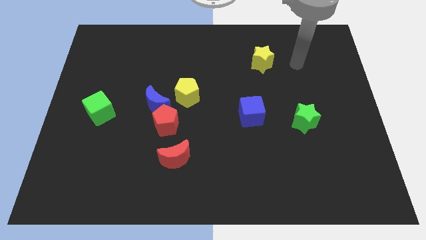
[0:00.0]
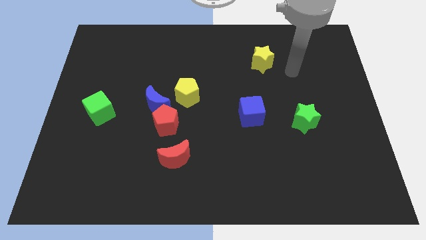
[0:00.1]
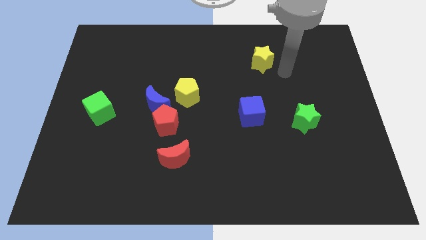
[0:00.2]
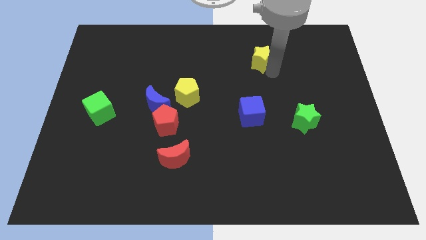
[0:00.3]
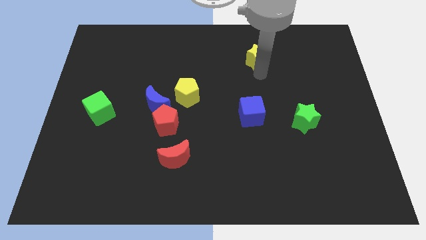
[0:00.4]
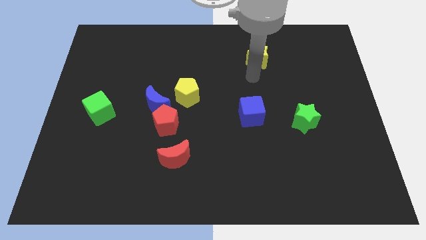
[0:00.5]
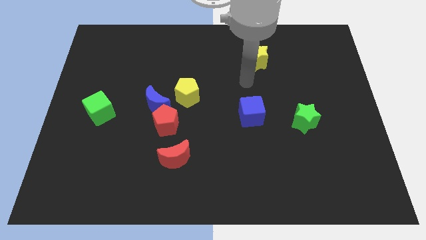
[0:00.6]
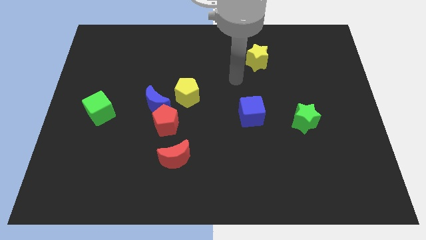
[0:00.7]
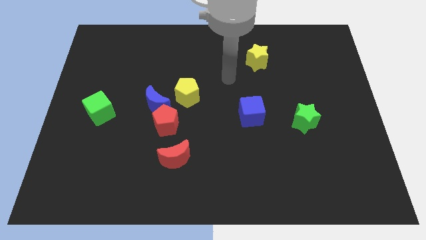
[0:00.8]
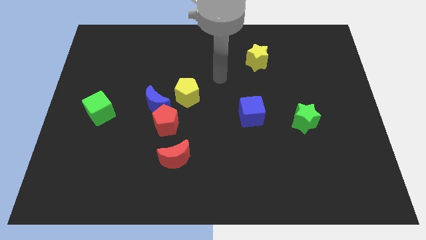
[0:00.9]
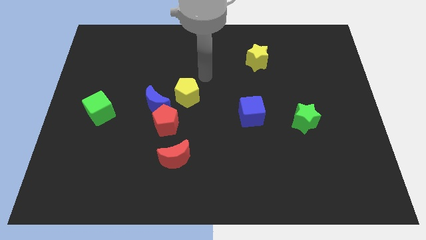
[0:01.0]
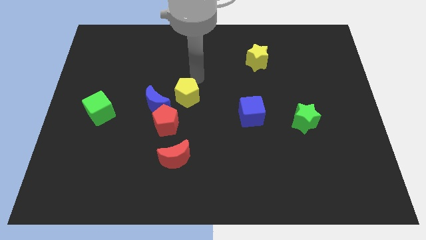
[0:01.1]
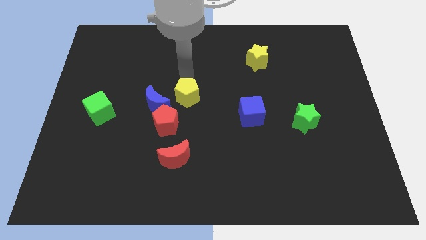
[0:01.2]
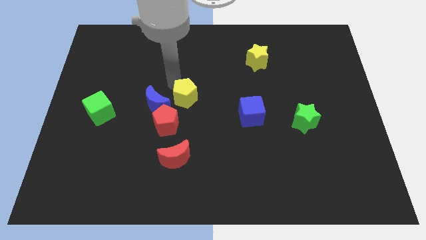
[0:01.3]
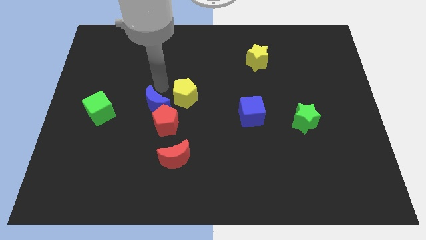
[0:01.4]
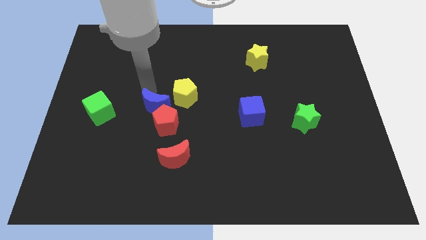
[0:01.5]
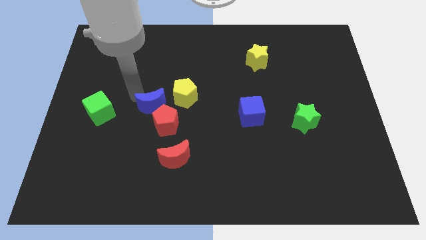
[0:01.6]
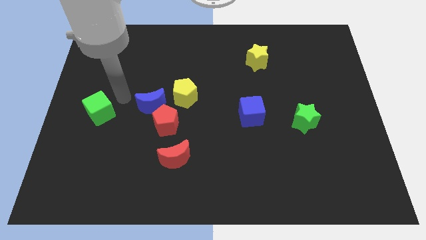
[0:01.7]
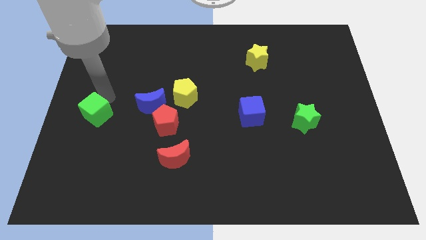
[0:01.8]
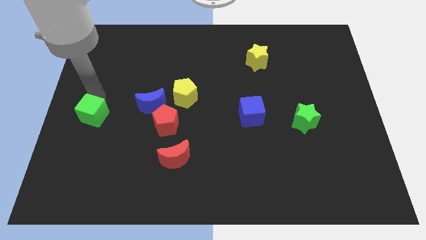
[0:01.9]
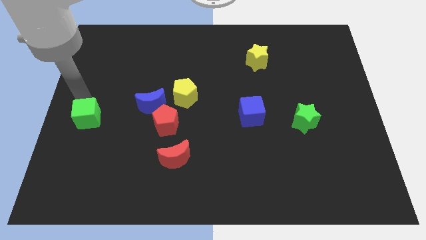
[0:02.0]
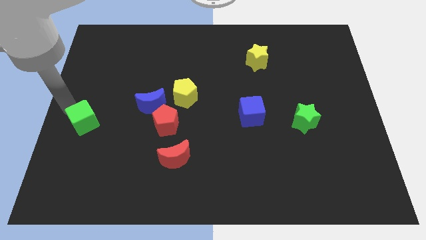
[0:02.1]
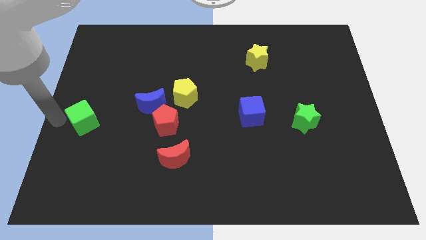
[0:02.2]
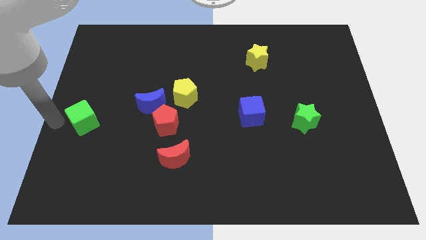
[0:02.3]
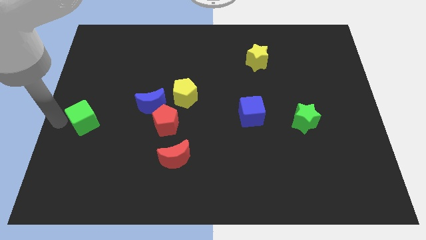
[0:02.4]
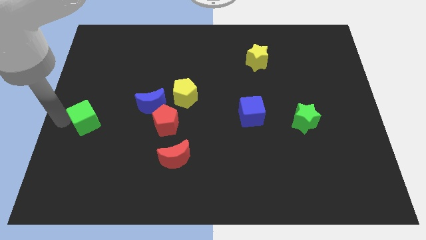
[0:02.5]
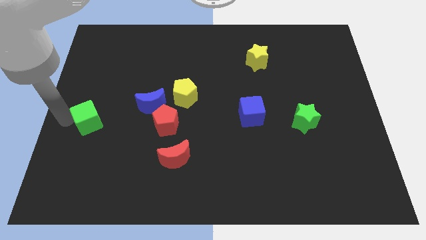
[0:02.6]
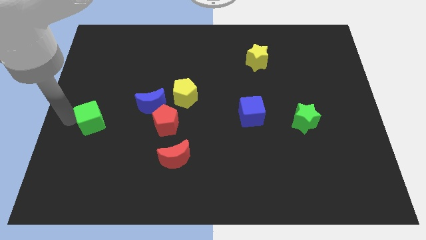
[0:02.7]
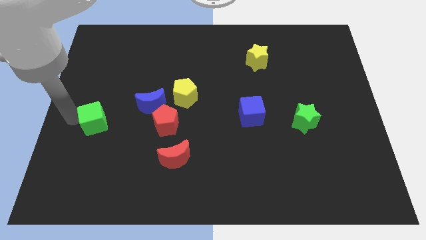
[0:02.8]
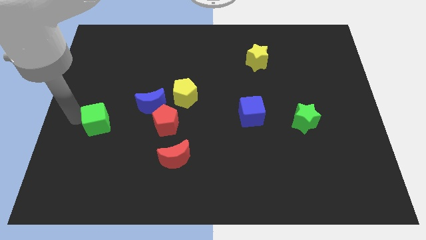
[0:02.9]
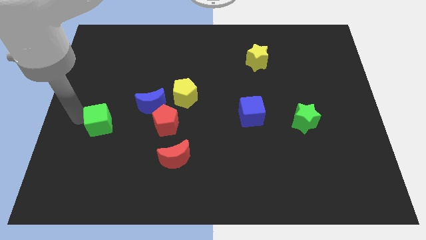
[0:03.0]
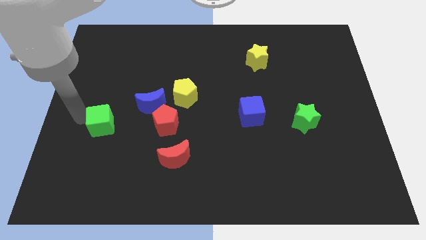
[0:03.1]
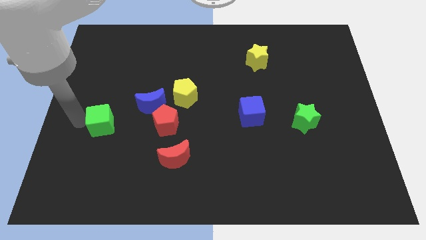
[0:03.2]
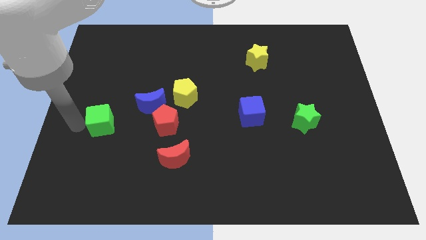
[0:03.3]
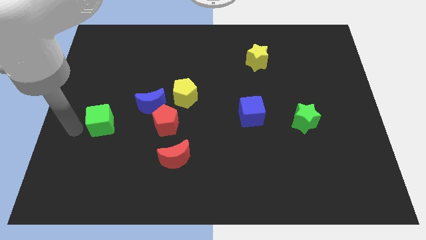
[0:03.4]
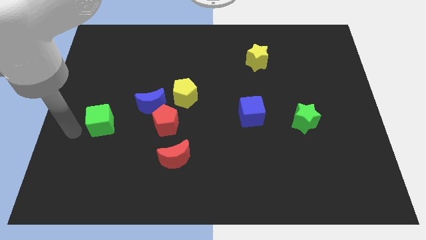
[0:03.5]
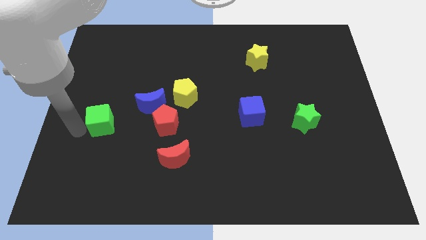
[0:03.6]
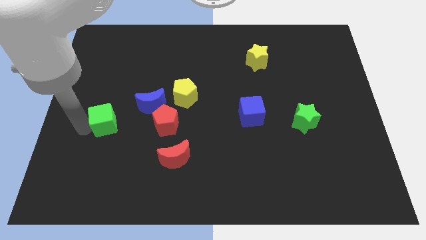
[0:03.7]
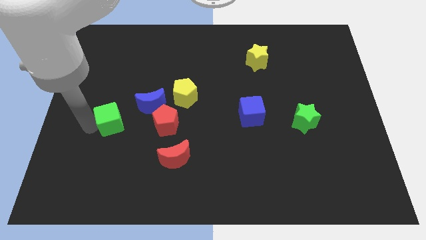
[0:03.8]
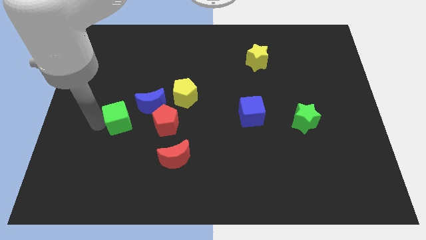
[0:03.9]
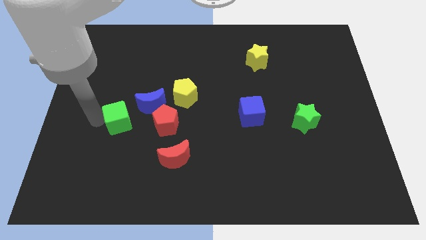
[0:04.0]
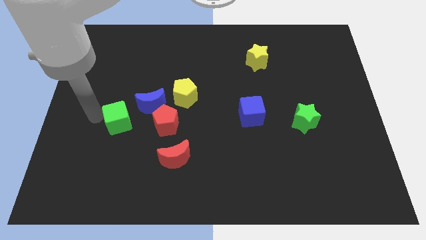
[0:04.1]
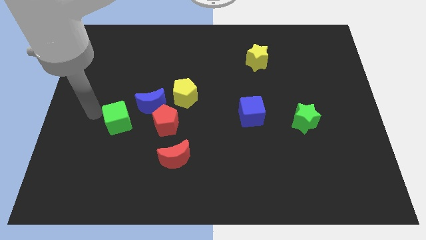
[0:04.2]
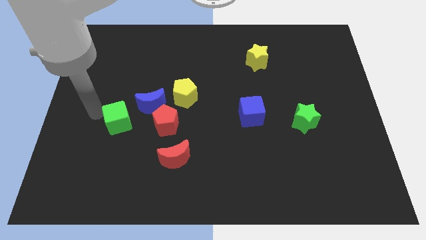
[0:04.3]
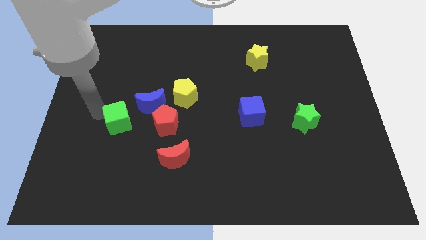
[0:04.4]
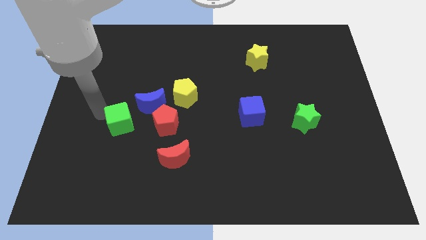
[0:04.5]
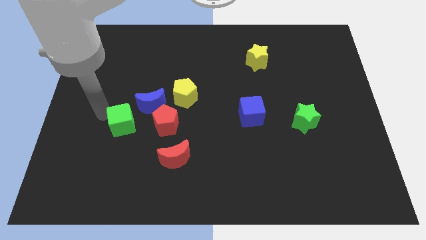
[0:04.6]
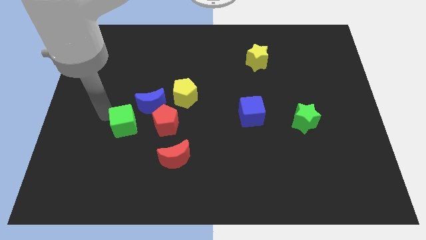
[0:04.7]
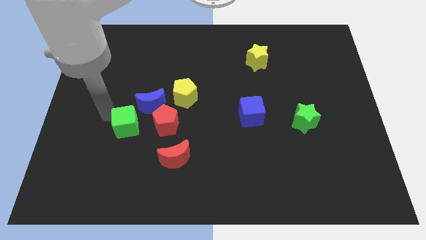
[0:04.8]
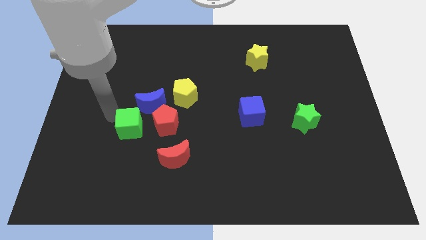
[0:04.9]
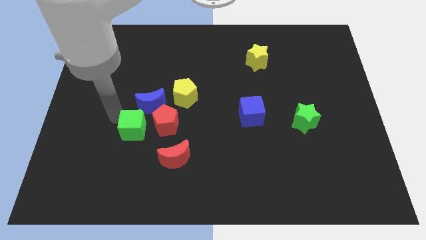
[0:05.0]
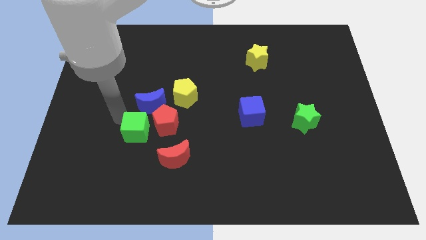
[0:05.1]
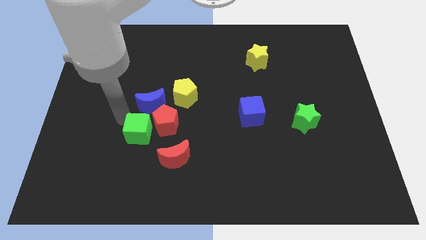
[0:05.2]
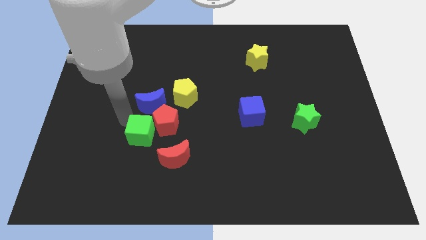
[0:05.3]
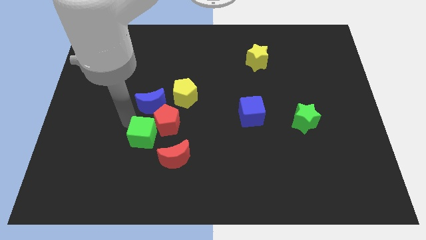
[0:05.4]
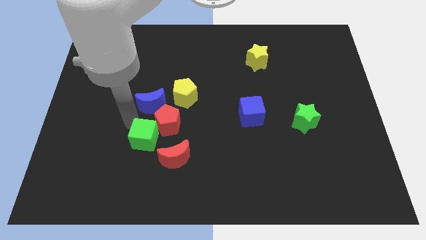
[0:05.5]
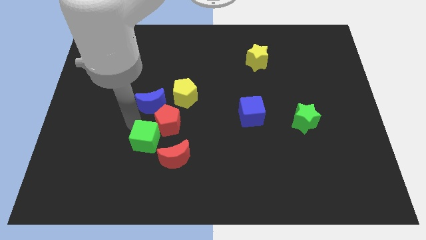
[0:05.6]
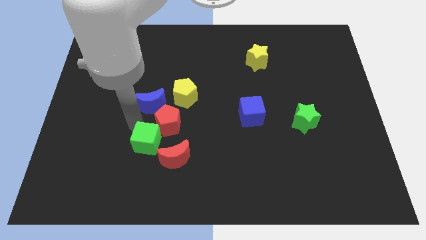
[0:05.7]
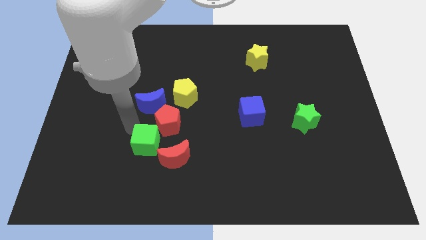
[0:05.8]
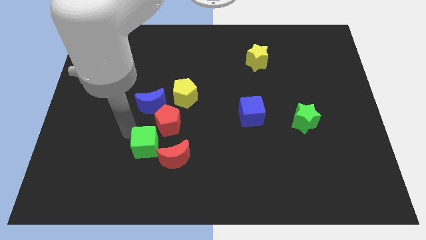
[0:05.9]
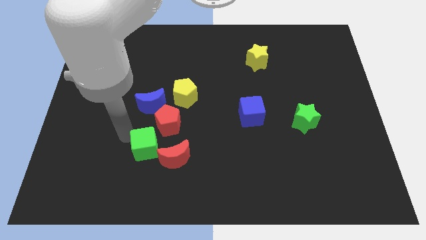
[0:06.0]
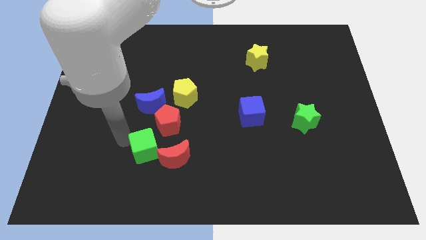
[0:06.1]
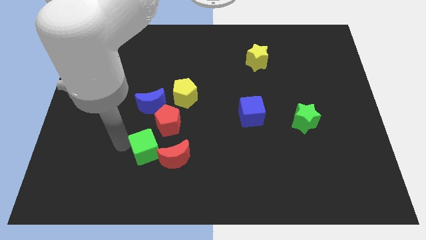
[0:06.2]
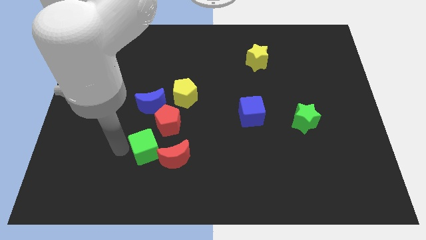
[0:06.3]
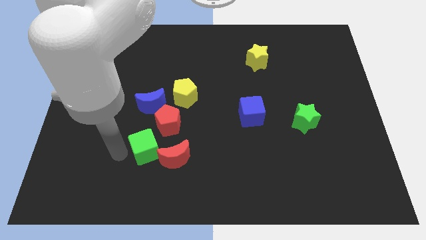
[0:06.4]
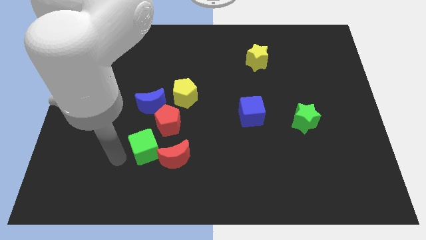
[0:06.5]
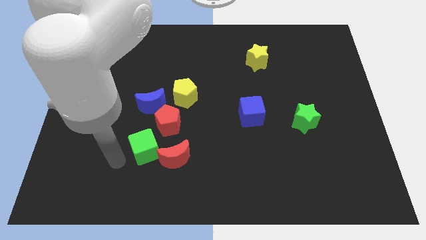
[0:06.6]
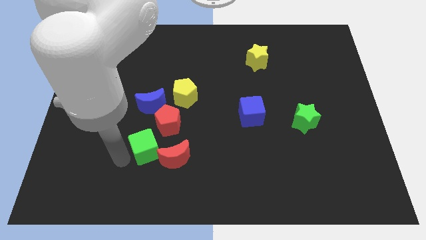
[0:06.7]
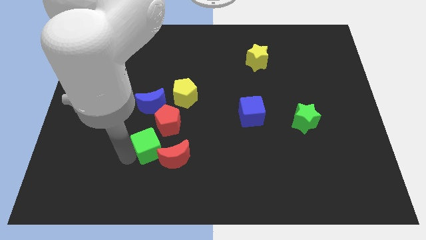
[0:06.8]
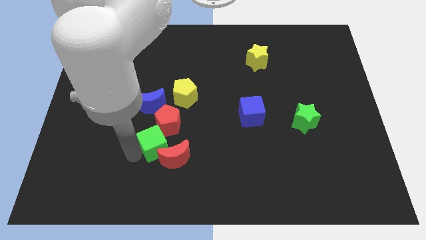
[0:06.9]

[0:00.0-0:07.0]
push the green cube close to the red moon

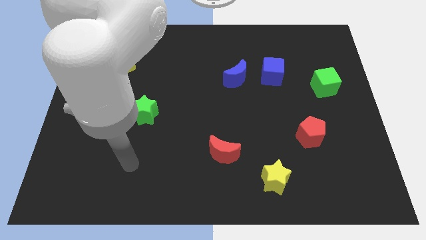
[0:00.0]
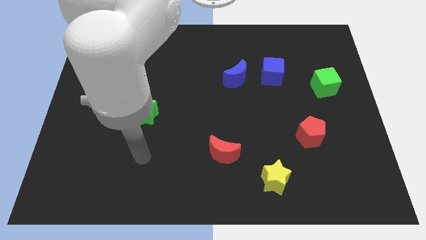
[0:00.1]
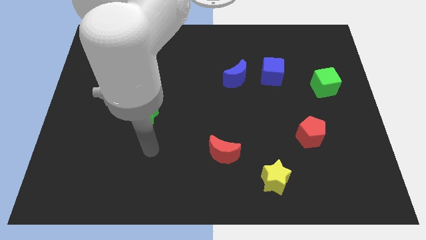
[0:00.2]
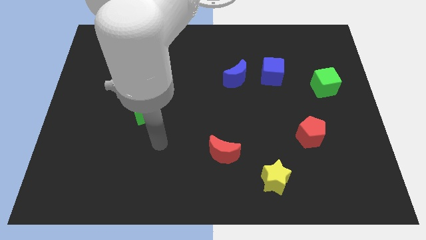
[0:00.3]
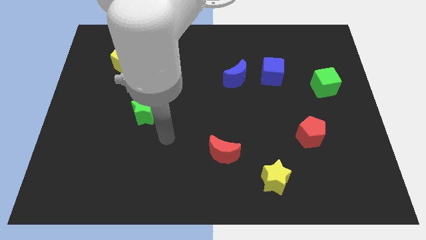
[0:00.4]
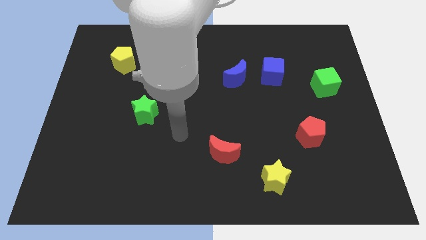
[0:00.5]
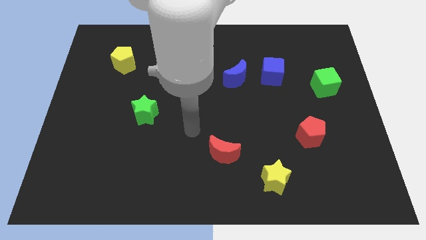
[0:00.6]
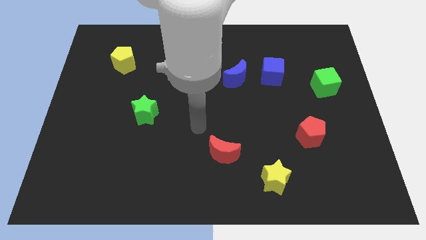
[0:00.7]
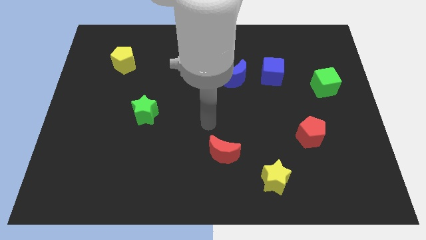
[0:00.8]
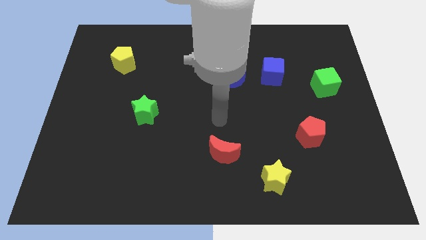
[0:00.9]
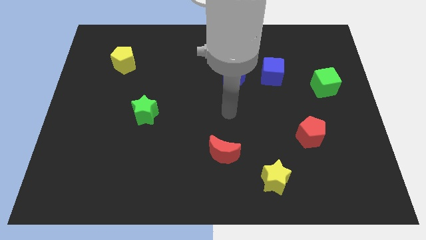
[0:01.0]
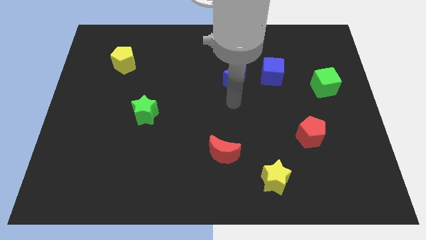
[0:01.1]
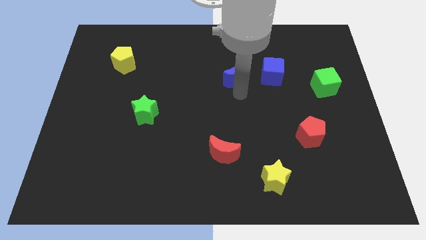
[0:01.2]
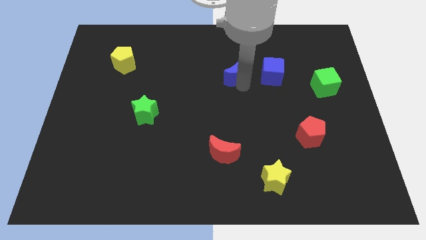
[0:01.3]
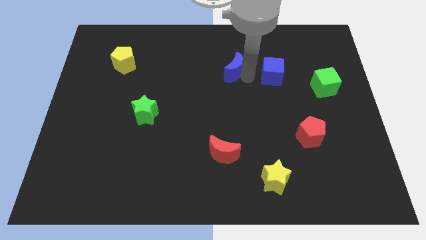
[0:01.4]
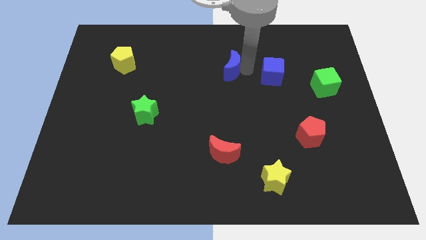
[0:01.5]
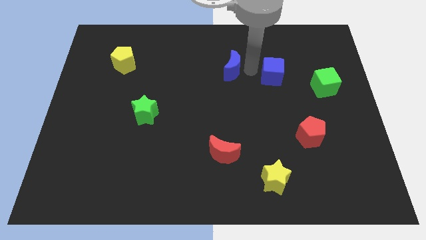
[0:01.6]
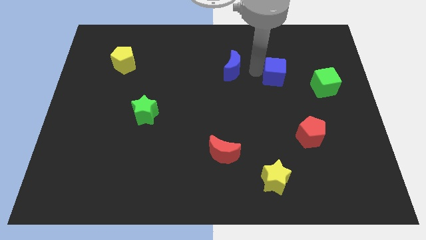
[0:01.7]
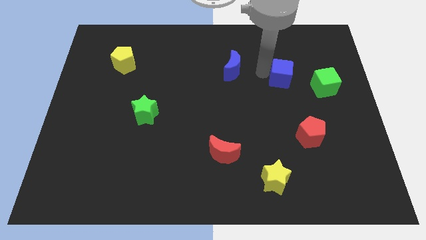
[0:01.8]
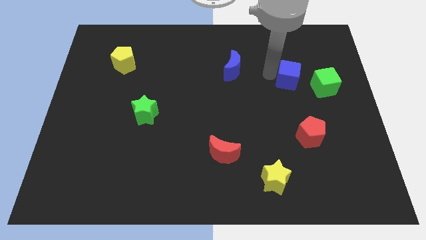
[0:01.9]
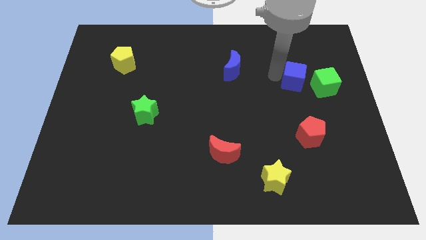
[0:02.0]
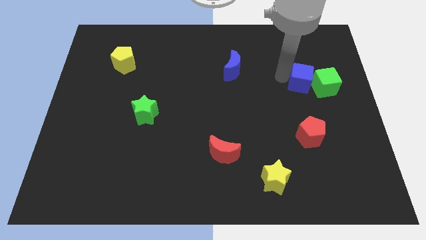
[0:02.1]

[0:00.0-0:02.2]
put the blue cube next to the green cube
